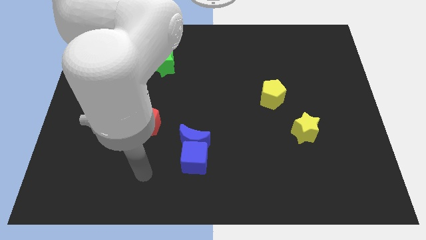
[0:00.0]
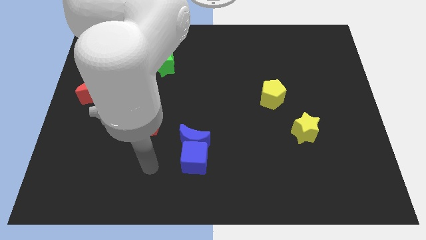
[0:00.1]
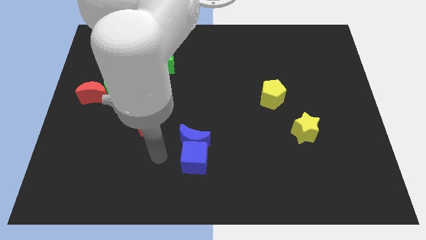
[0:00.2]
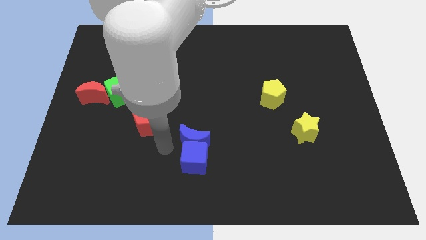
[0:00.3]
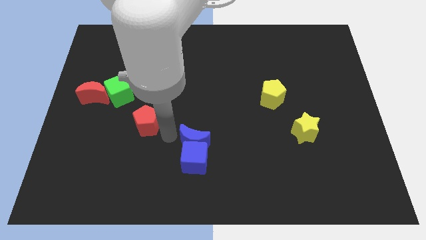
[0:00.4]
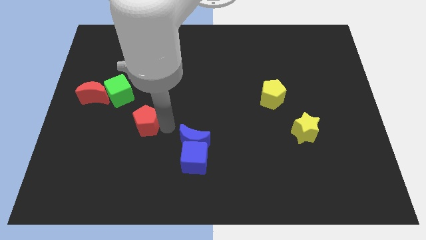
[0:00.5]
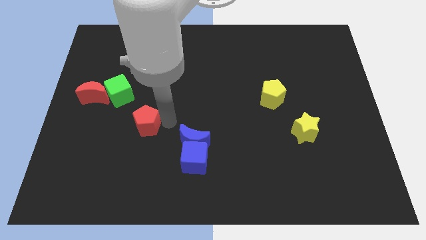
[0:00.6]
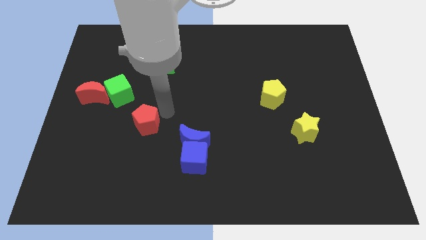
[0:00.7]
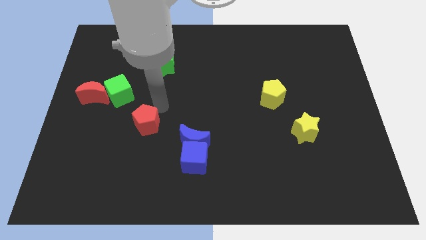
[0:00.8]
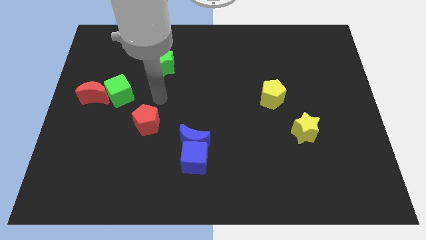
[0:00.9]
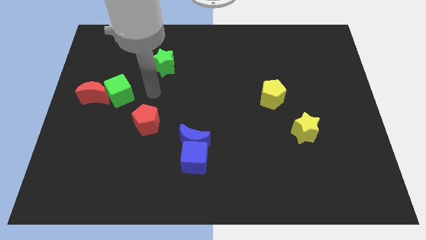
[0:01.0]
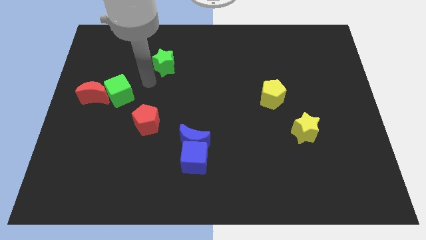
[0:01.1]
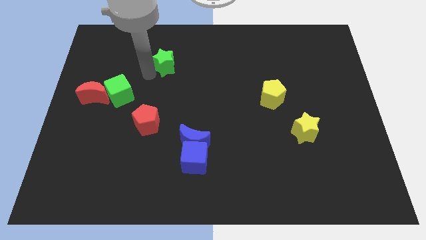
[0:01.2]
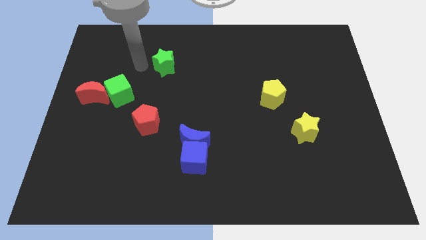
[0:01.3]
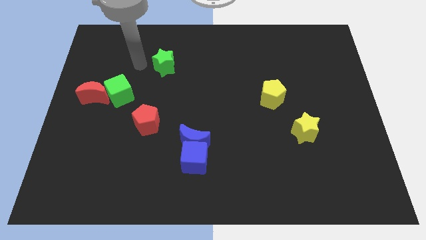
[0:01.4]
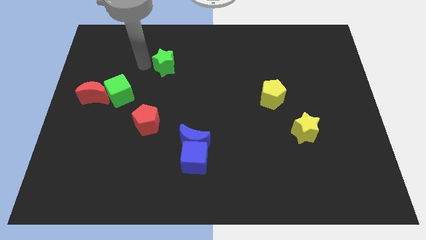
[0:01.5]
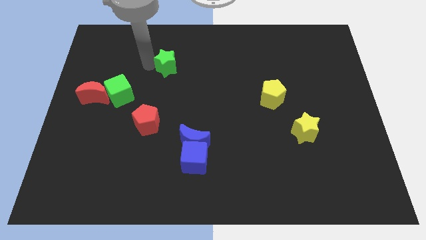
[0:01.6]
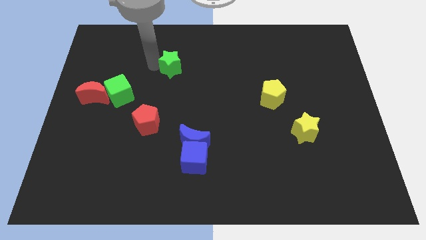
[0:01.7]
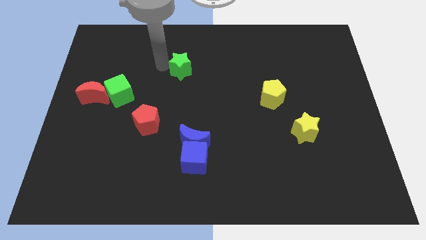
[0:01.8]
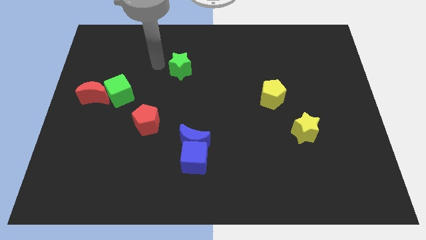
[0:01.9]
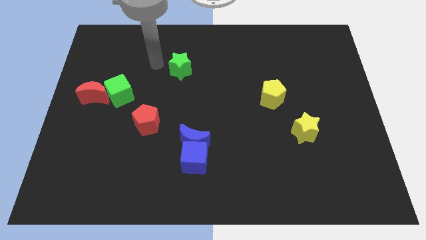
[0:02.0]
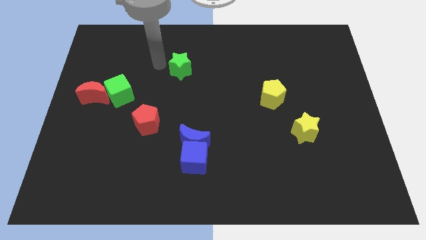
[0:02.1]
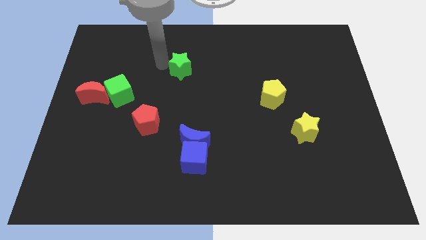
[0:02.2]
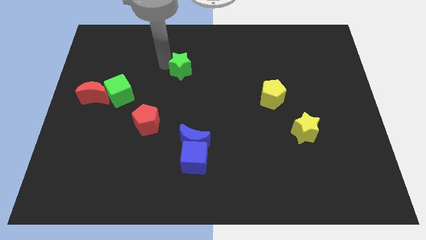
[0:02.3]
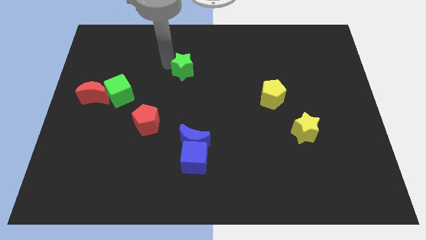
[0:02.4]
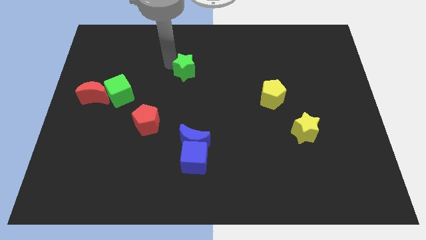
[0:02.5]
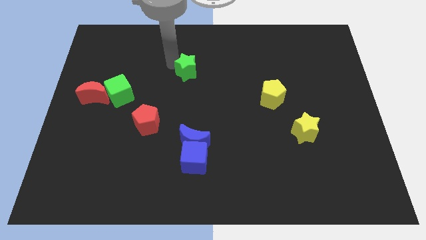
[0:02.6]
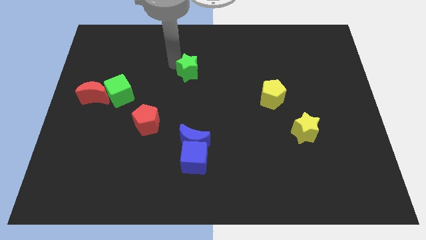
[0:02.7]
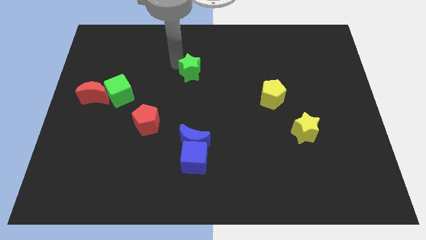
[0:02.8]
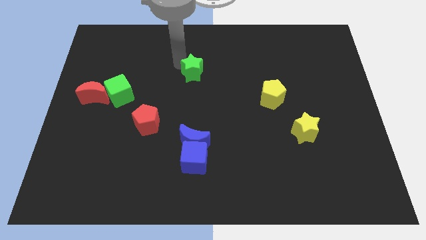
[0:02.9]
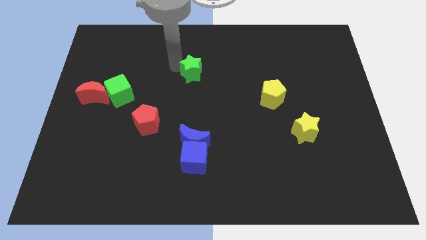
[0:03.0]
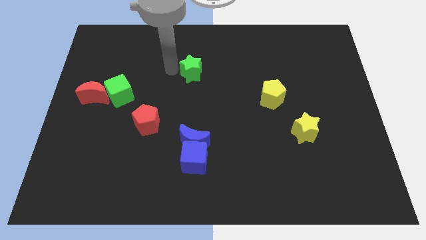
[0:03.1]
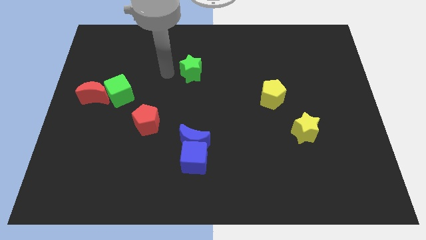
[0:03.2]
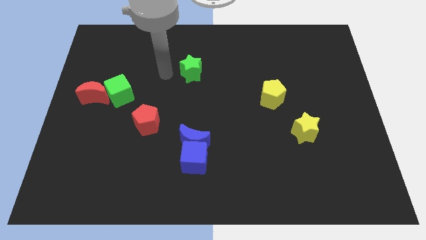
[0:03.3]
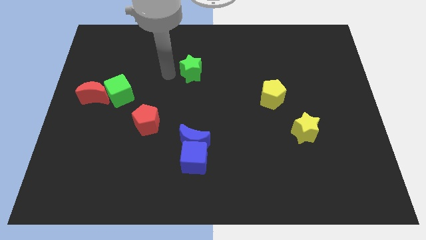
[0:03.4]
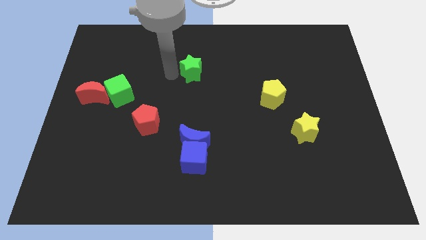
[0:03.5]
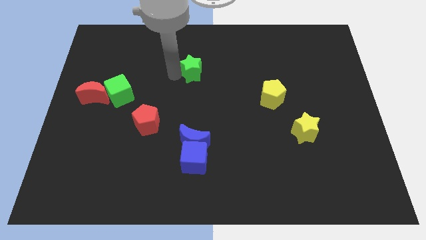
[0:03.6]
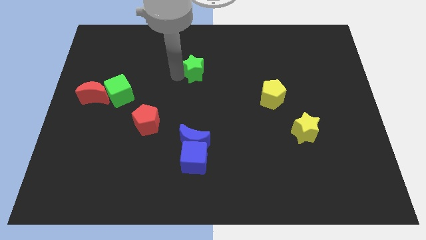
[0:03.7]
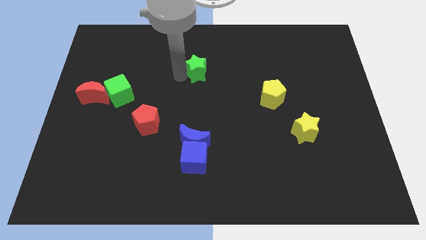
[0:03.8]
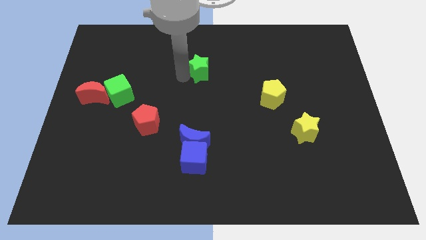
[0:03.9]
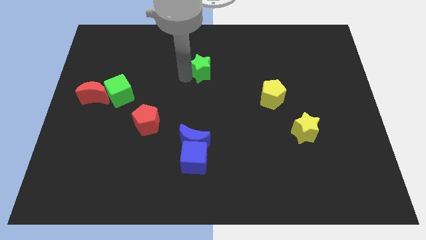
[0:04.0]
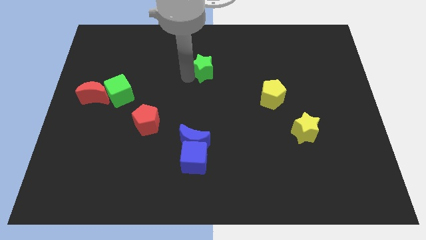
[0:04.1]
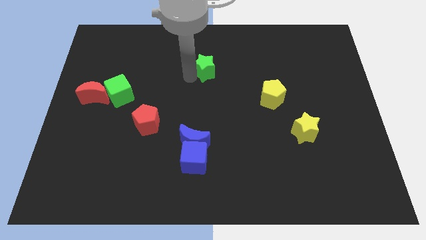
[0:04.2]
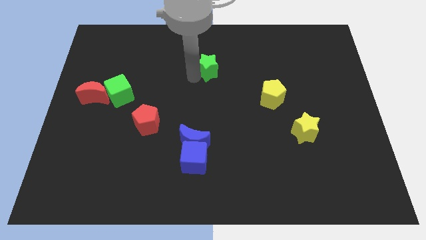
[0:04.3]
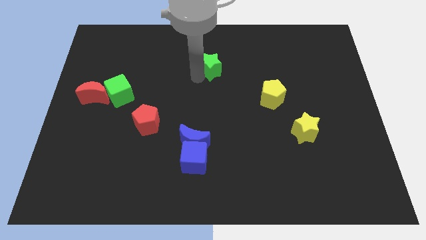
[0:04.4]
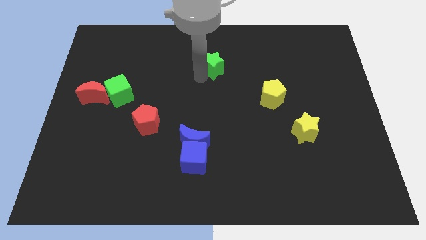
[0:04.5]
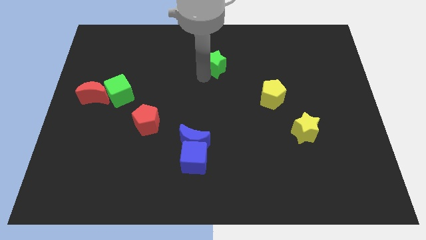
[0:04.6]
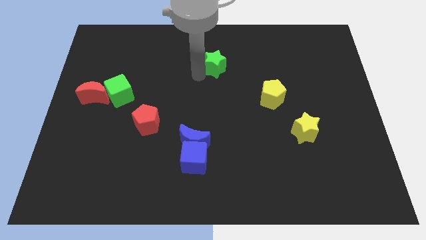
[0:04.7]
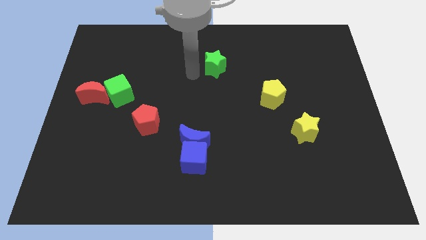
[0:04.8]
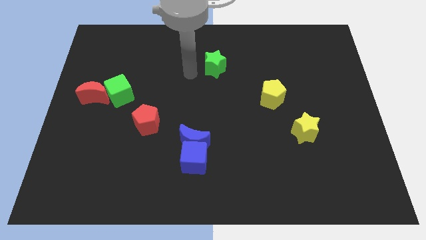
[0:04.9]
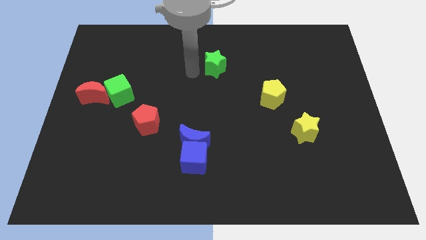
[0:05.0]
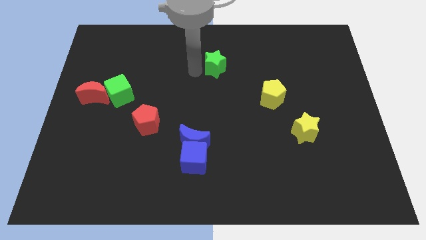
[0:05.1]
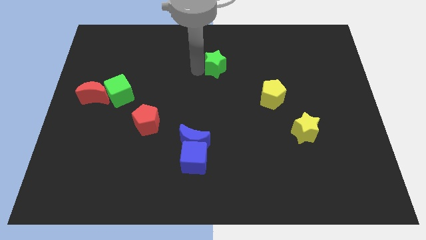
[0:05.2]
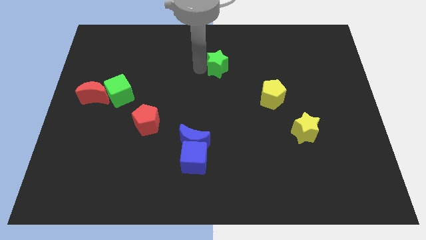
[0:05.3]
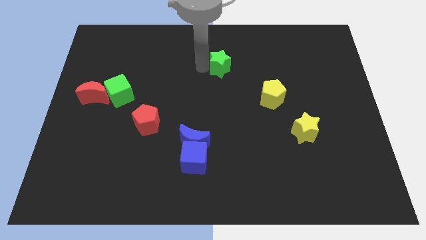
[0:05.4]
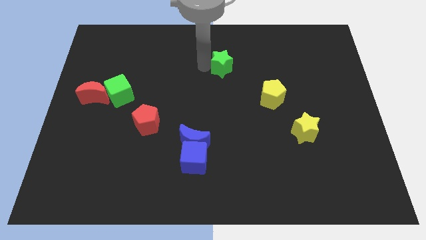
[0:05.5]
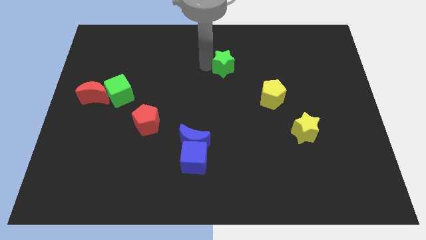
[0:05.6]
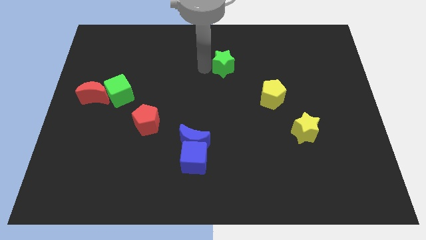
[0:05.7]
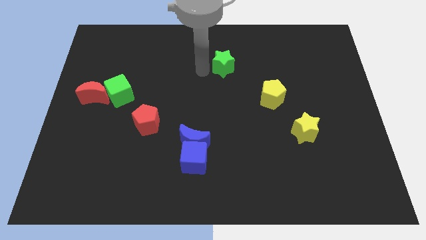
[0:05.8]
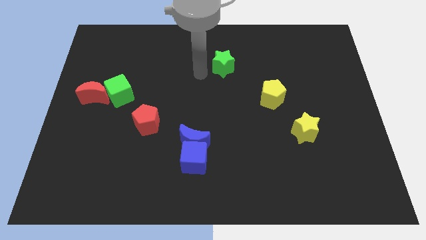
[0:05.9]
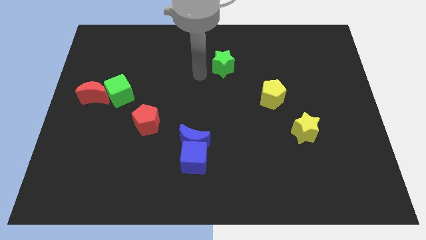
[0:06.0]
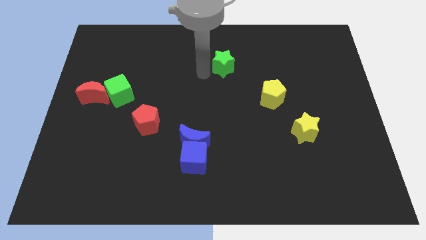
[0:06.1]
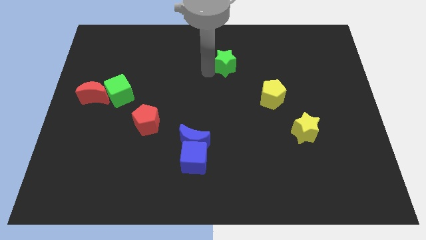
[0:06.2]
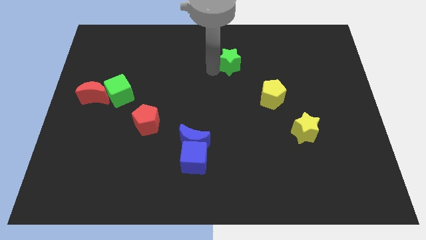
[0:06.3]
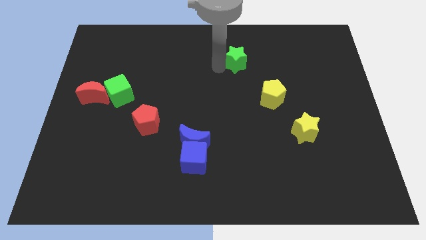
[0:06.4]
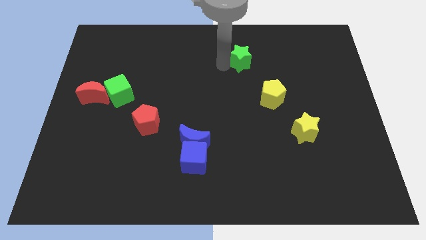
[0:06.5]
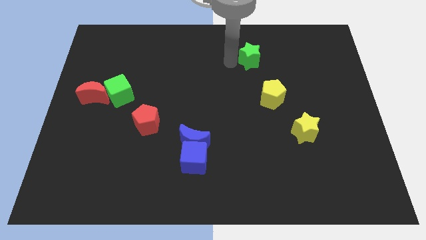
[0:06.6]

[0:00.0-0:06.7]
slide the green star to the right

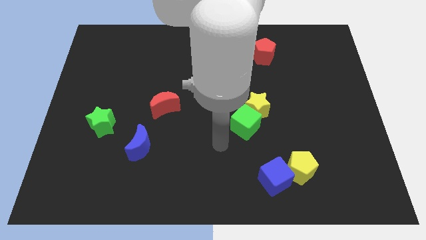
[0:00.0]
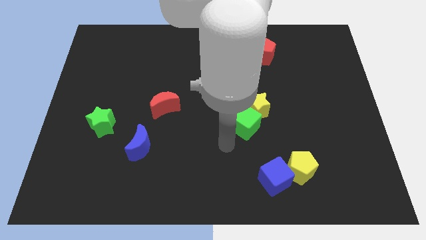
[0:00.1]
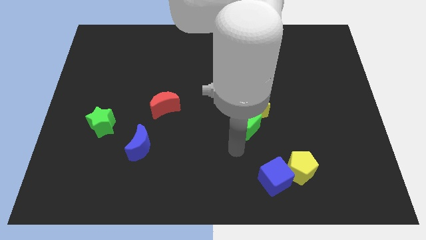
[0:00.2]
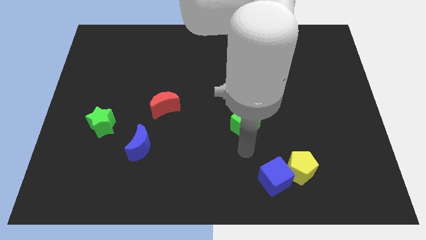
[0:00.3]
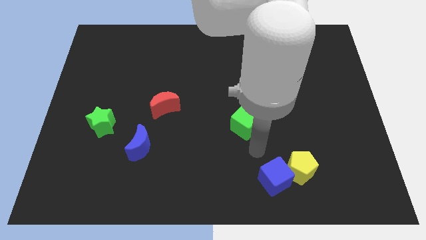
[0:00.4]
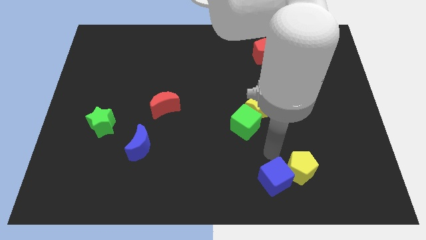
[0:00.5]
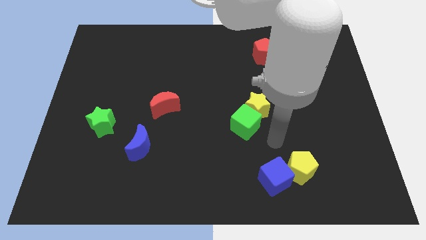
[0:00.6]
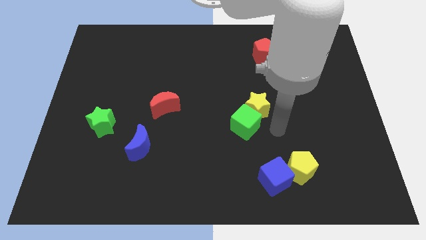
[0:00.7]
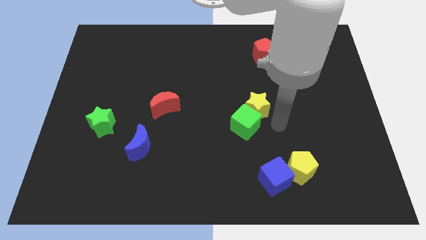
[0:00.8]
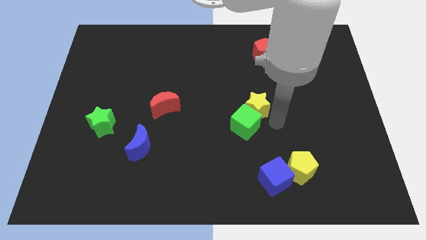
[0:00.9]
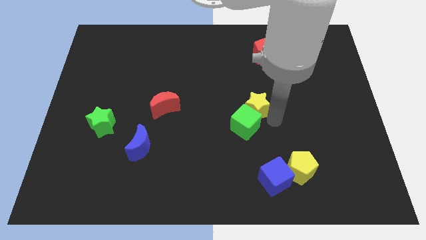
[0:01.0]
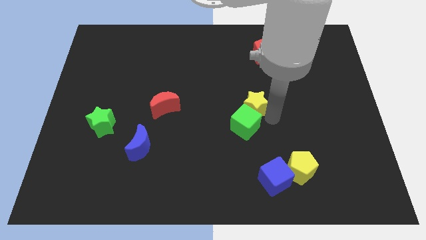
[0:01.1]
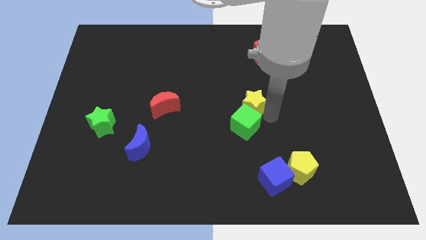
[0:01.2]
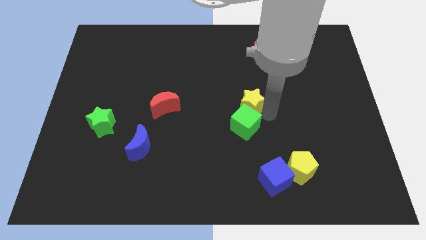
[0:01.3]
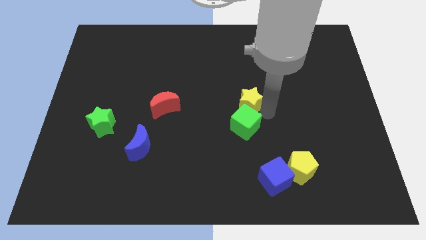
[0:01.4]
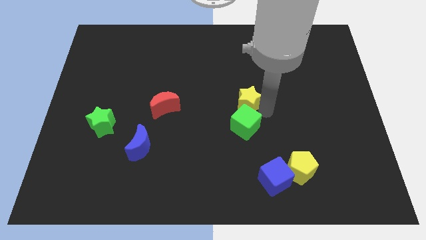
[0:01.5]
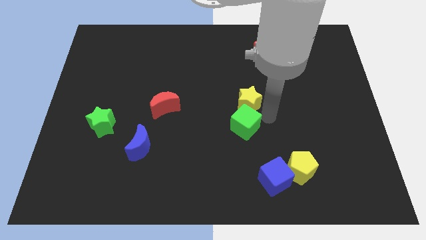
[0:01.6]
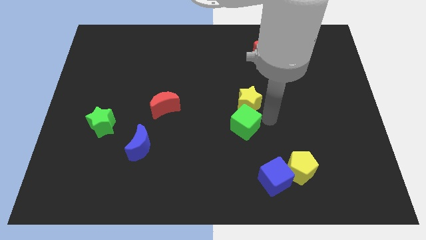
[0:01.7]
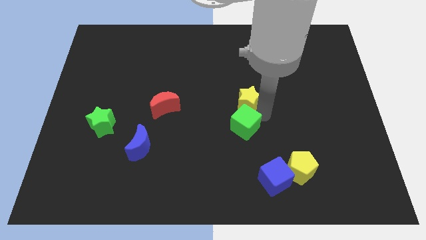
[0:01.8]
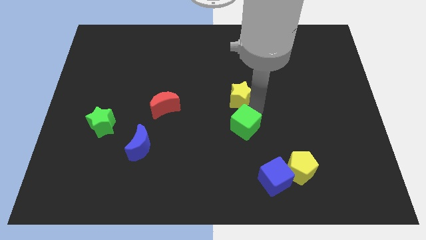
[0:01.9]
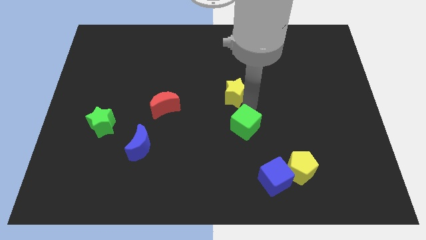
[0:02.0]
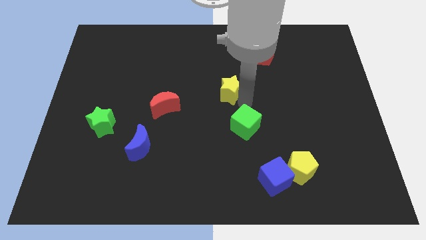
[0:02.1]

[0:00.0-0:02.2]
move the yellow star somewhat upwards and then to the left
